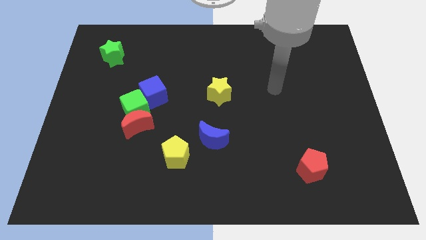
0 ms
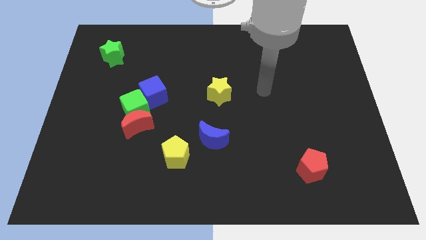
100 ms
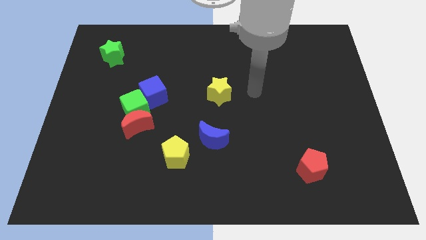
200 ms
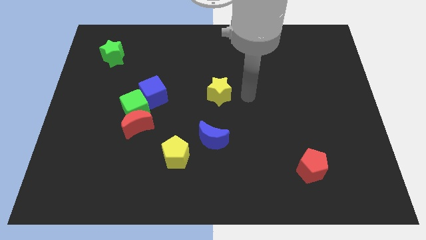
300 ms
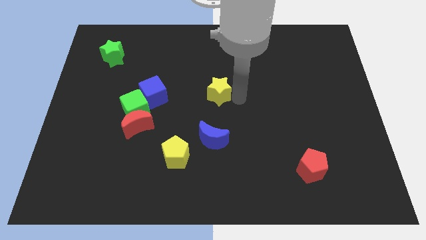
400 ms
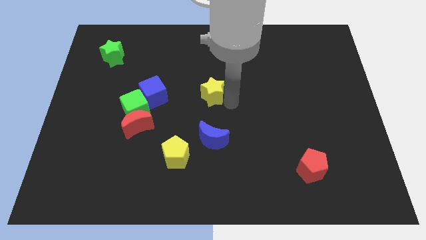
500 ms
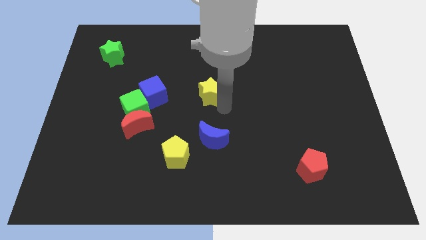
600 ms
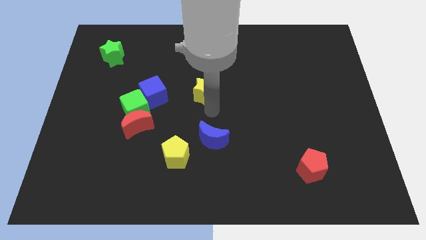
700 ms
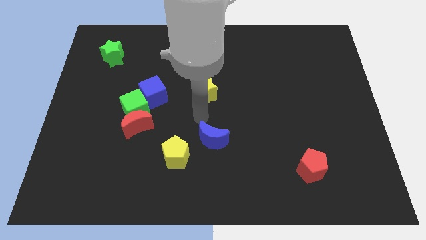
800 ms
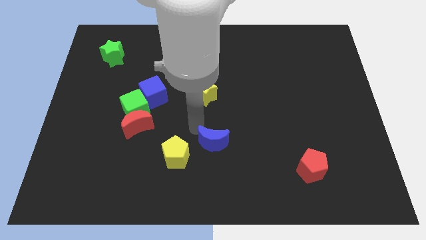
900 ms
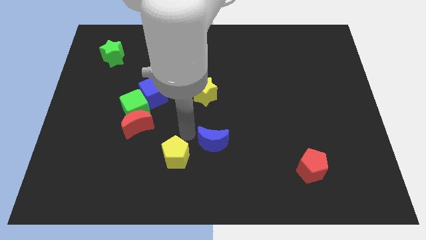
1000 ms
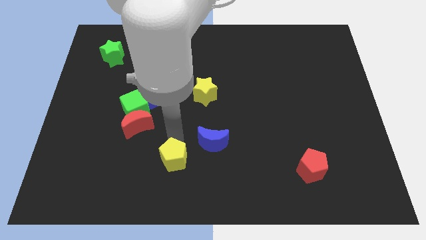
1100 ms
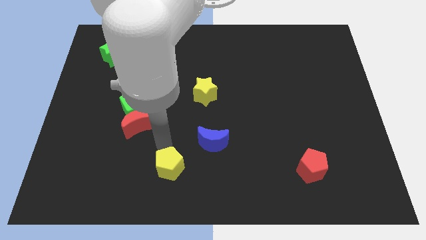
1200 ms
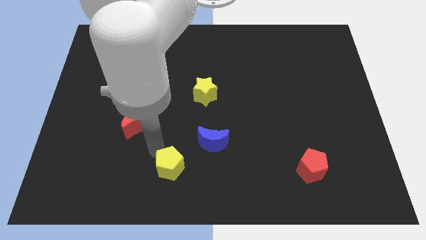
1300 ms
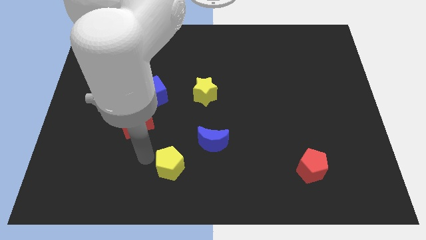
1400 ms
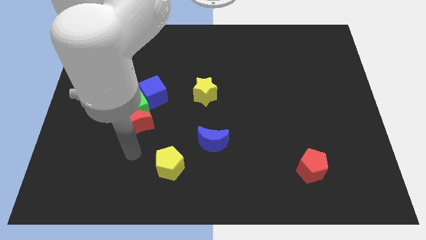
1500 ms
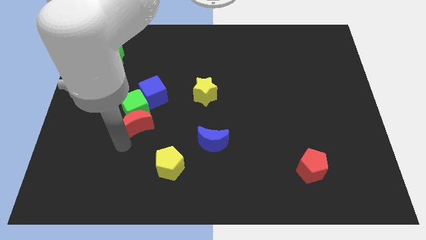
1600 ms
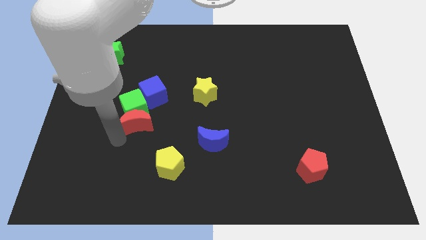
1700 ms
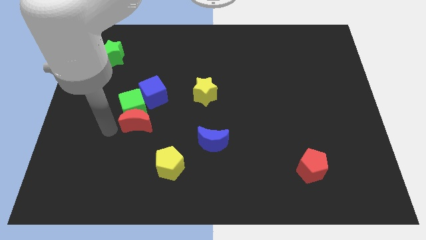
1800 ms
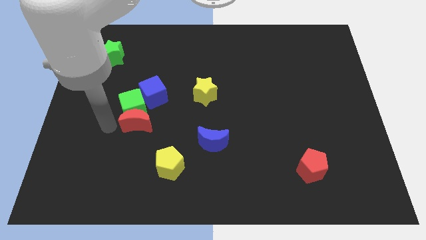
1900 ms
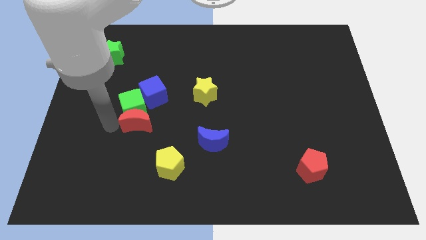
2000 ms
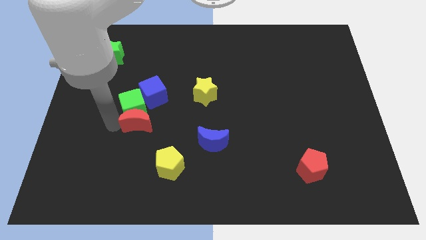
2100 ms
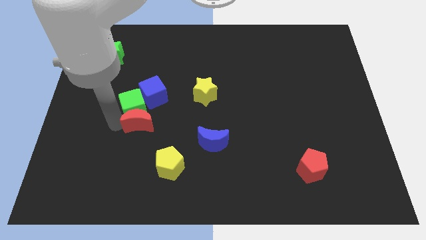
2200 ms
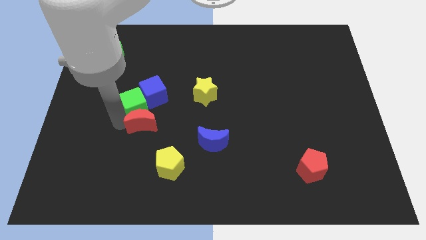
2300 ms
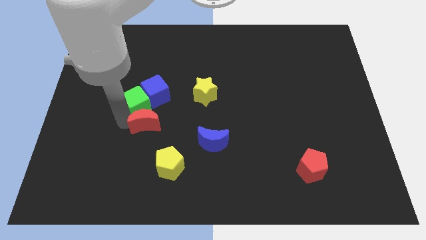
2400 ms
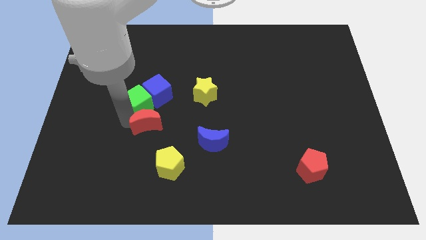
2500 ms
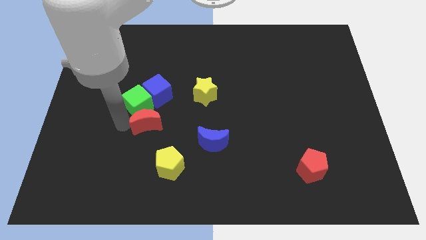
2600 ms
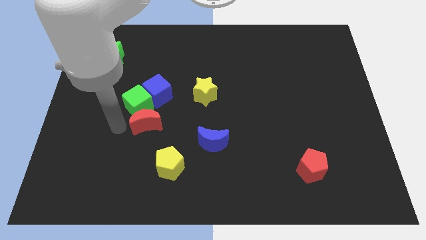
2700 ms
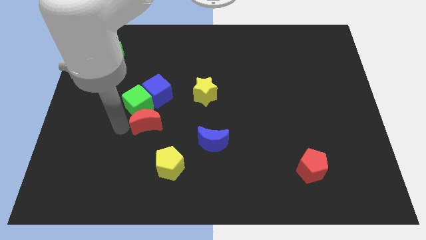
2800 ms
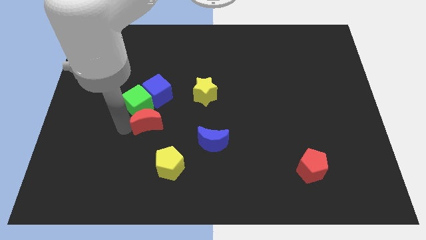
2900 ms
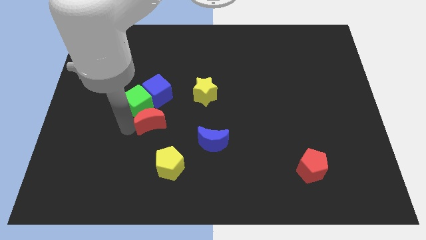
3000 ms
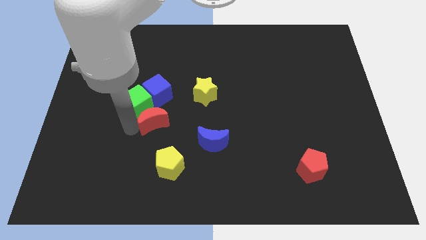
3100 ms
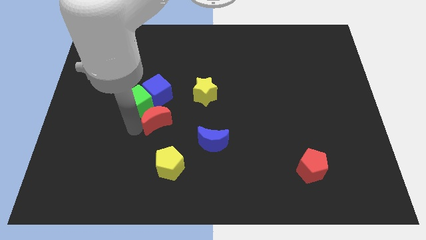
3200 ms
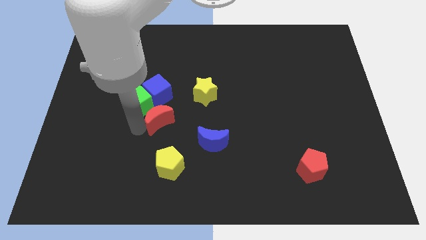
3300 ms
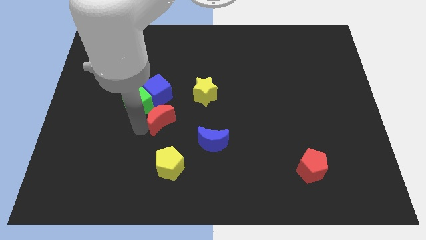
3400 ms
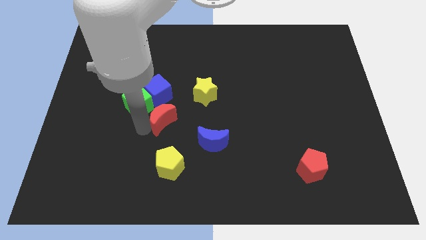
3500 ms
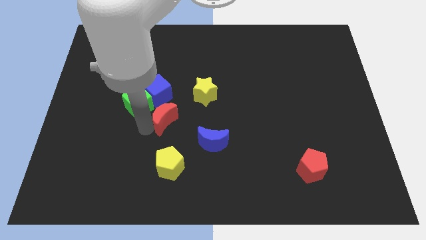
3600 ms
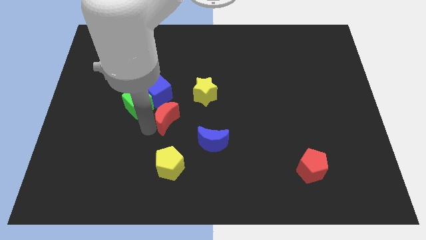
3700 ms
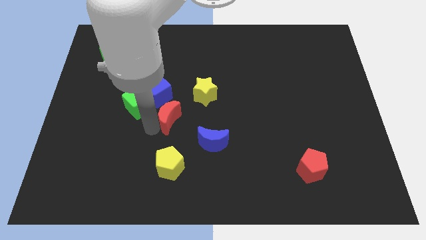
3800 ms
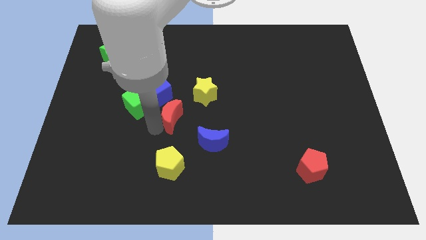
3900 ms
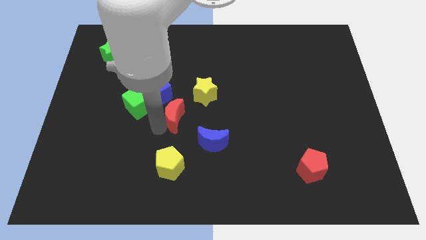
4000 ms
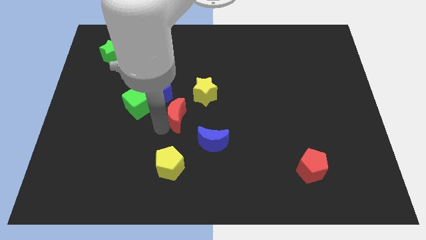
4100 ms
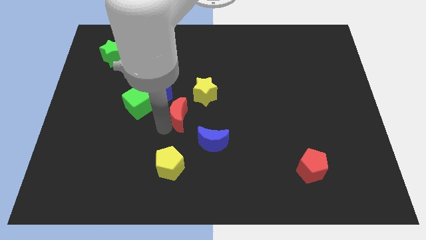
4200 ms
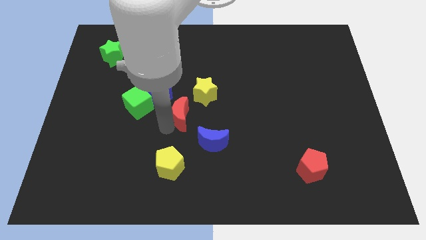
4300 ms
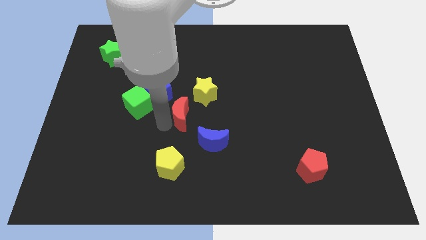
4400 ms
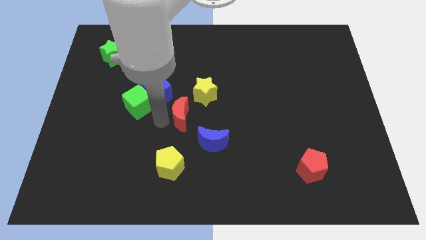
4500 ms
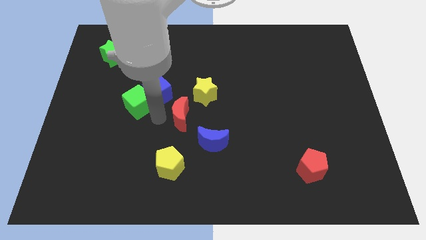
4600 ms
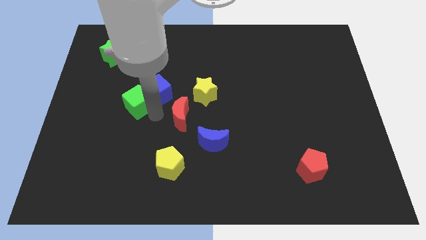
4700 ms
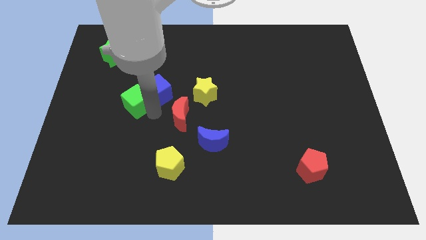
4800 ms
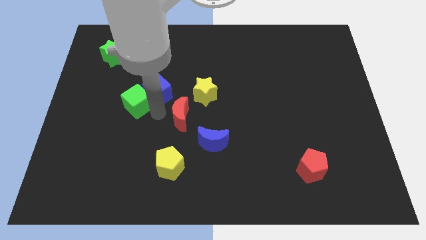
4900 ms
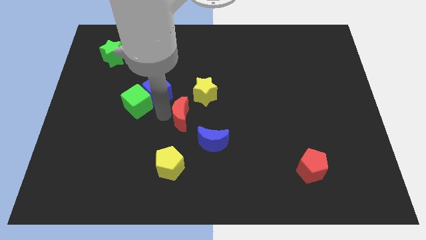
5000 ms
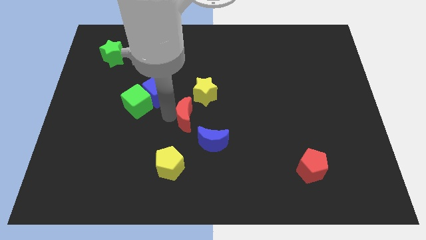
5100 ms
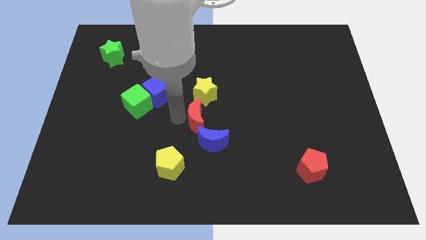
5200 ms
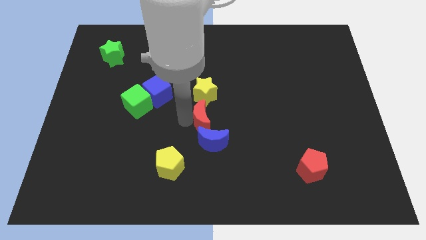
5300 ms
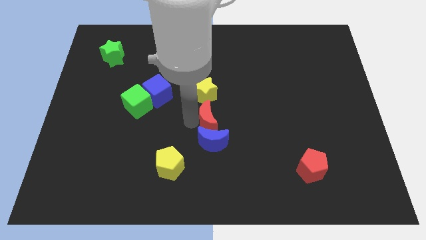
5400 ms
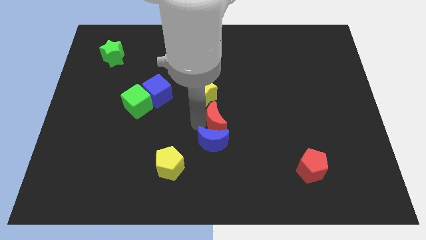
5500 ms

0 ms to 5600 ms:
slide the red moon diagonally down and to the right of the yellow star

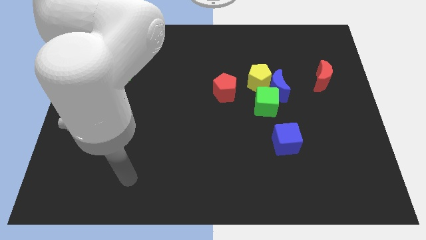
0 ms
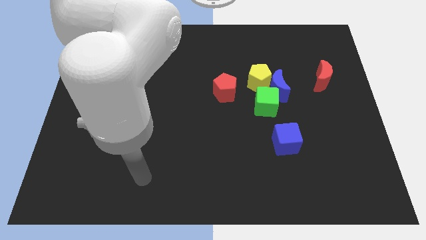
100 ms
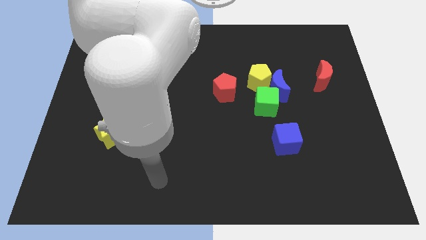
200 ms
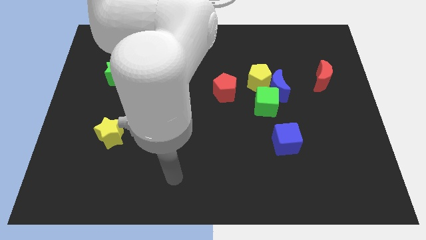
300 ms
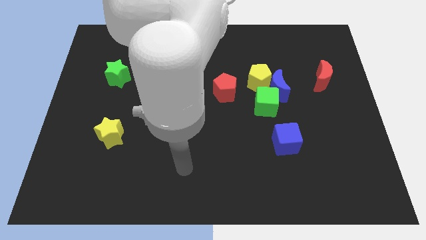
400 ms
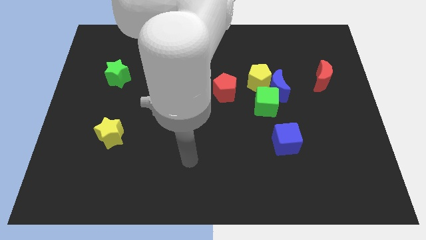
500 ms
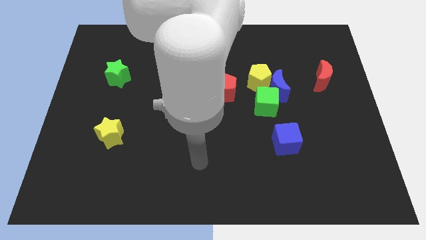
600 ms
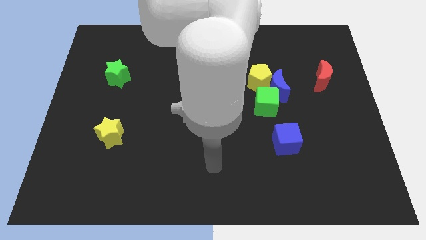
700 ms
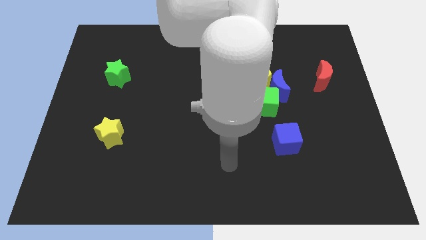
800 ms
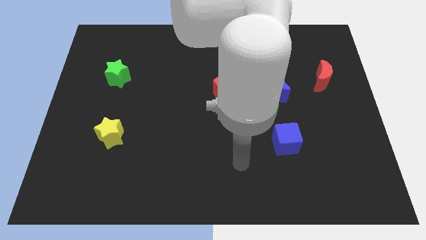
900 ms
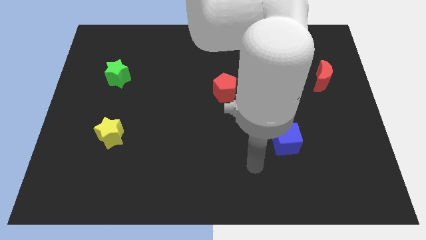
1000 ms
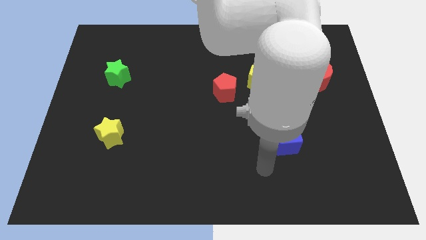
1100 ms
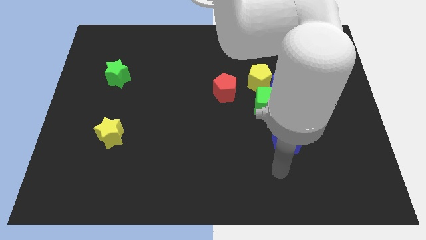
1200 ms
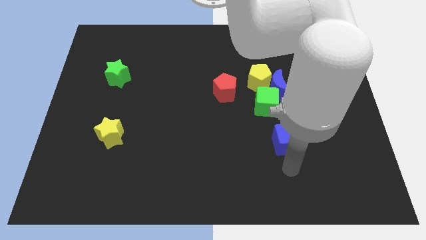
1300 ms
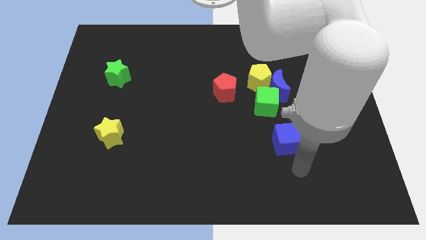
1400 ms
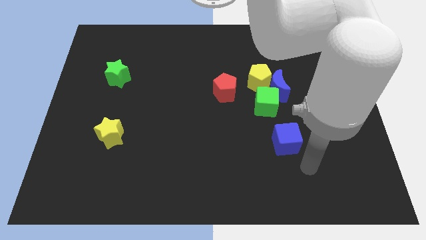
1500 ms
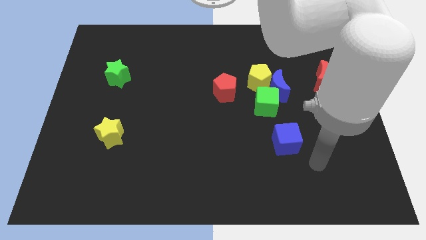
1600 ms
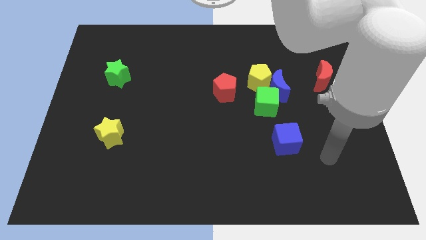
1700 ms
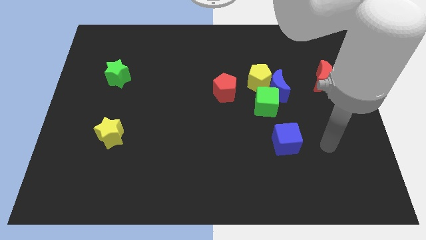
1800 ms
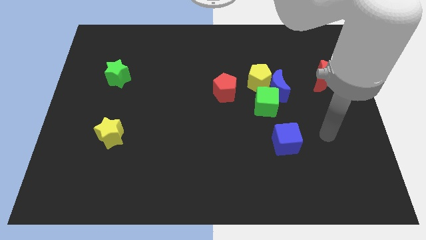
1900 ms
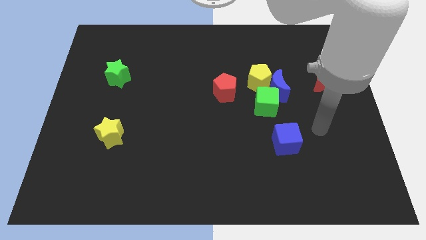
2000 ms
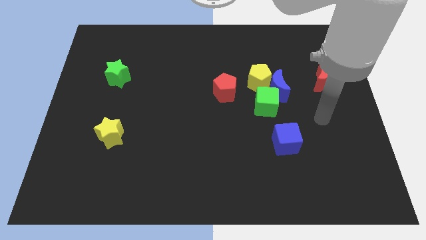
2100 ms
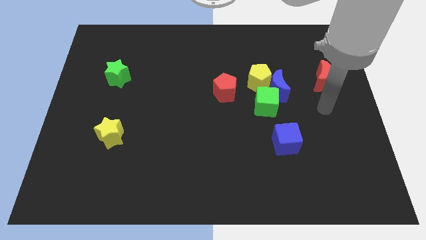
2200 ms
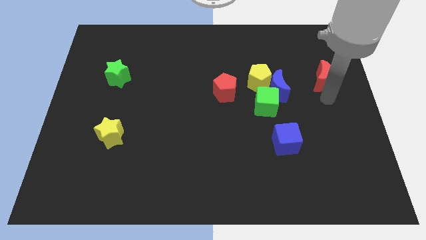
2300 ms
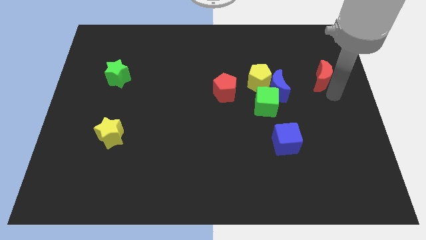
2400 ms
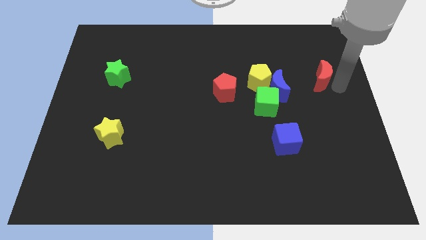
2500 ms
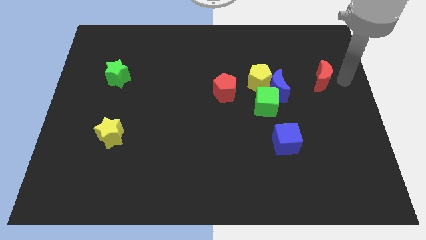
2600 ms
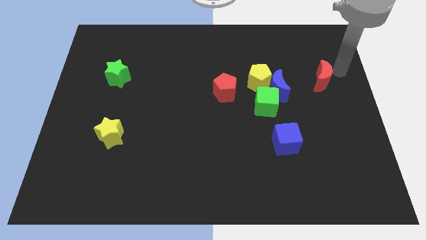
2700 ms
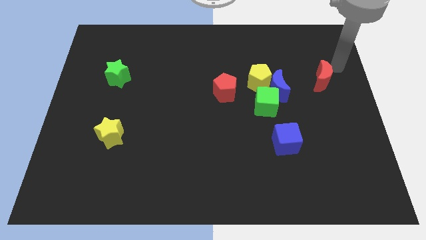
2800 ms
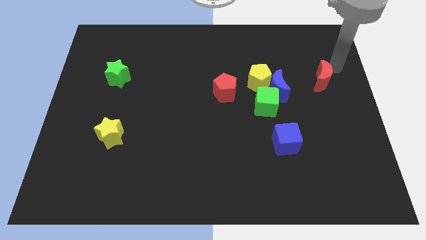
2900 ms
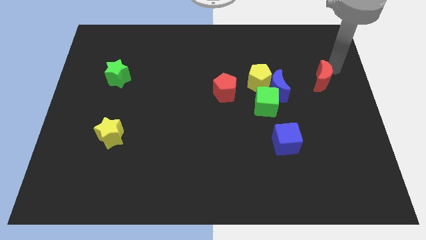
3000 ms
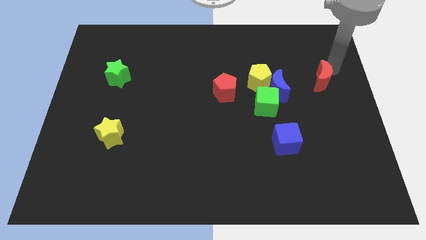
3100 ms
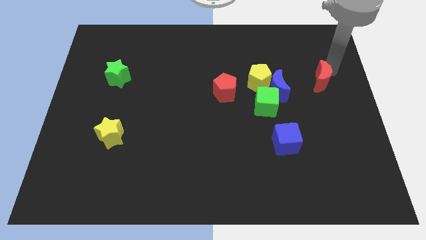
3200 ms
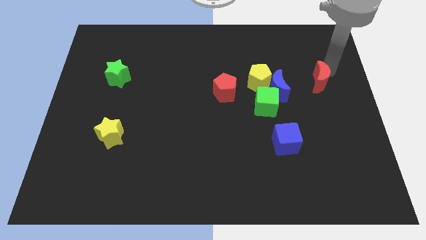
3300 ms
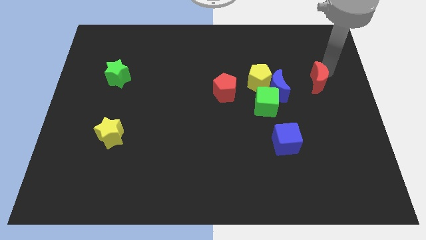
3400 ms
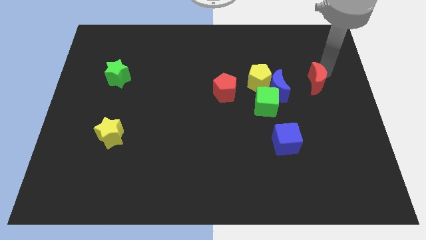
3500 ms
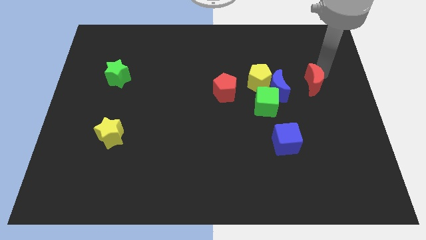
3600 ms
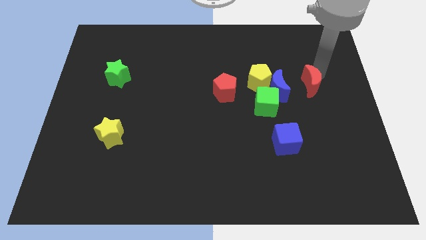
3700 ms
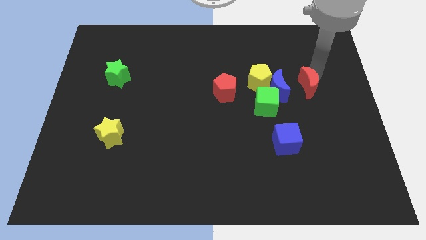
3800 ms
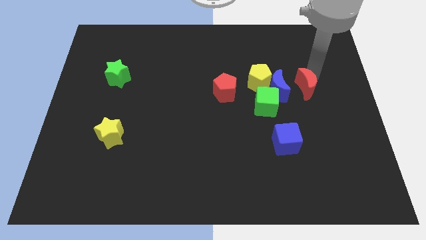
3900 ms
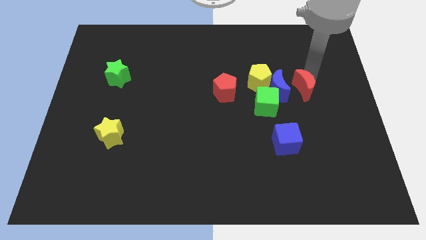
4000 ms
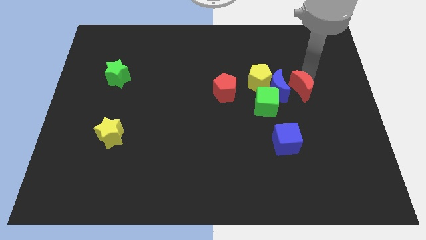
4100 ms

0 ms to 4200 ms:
move the red moon diagonally down and to the right of the blue moon
